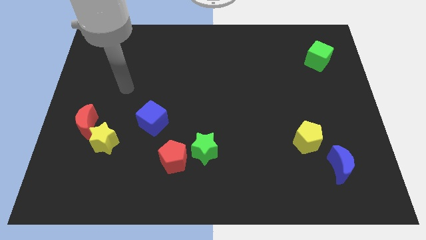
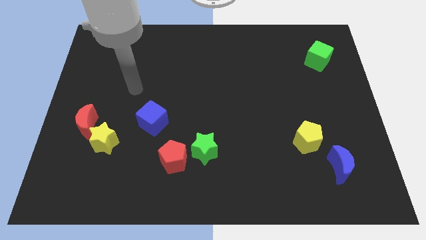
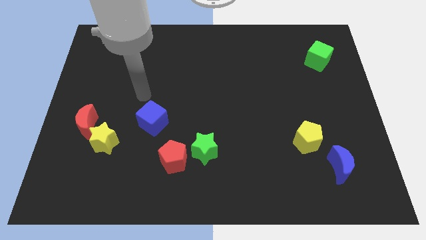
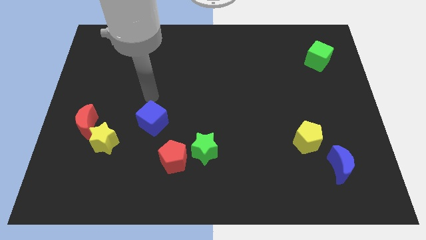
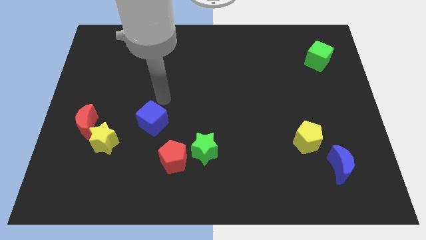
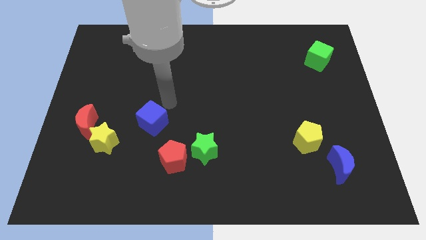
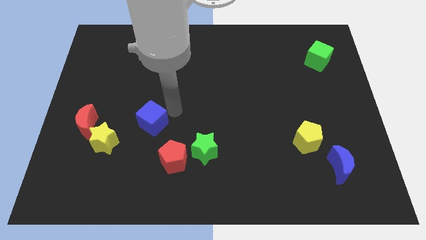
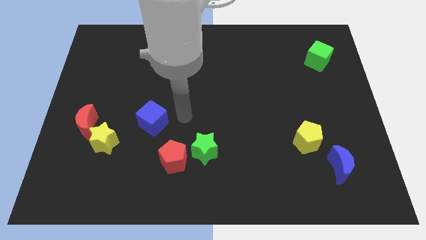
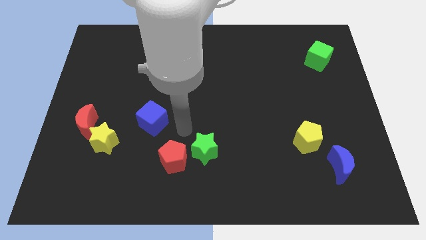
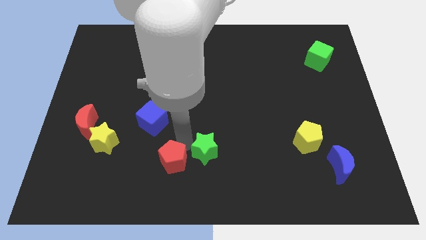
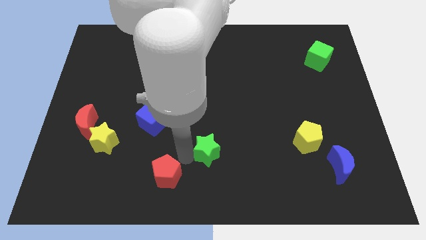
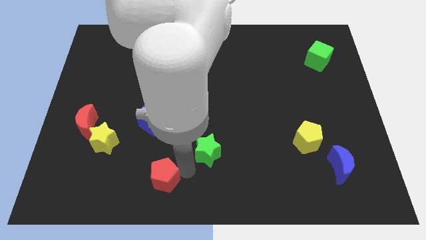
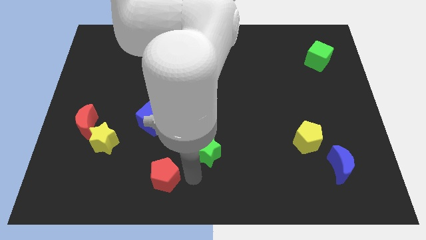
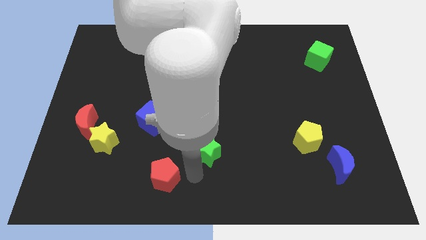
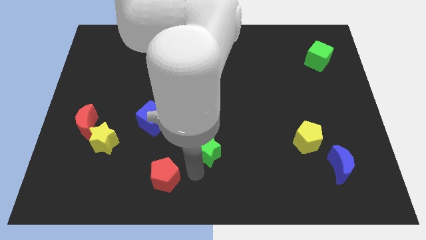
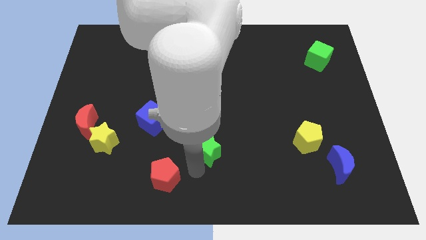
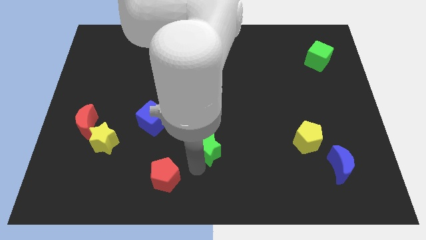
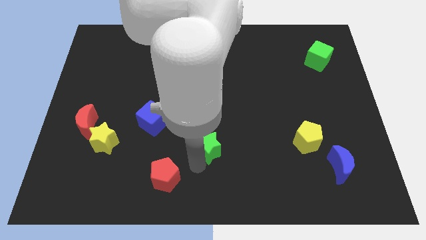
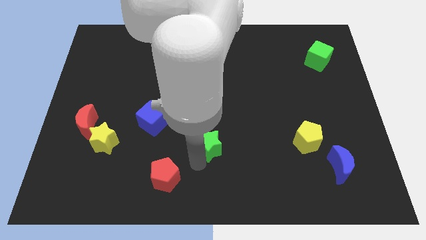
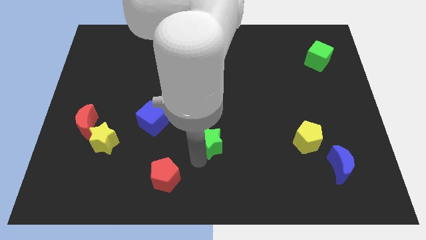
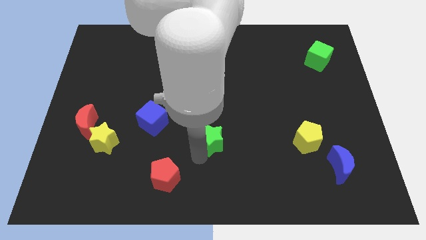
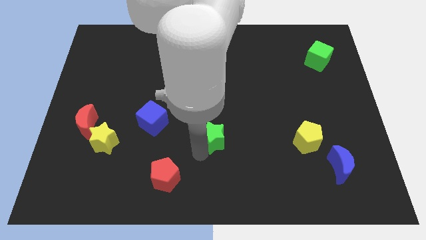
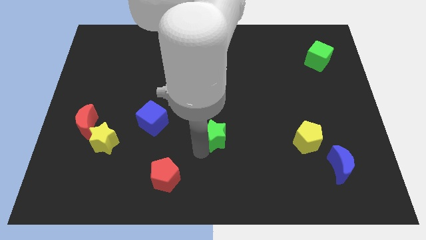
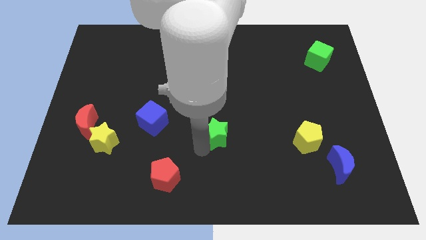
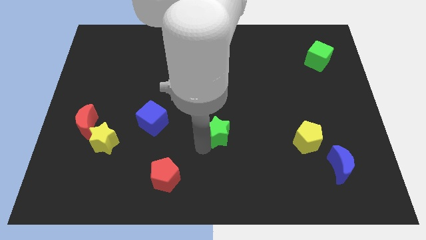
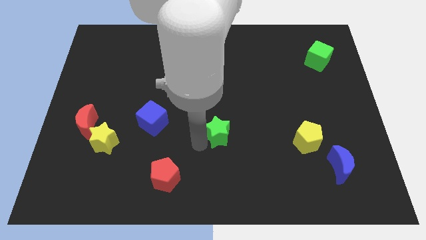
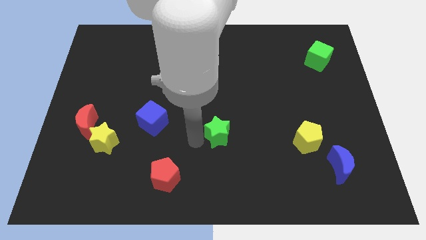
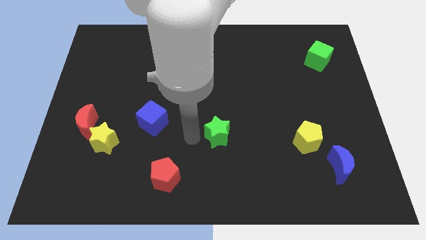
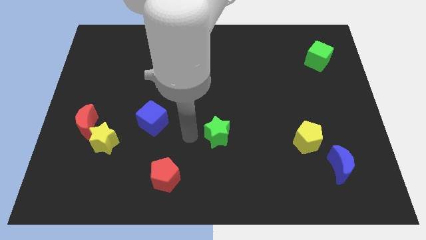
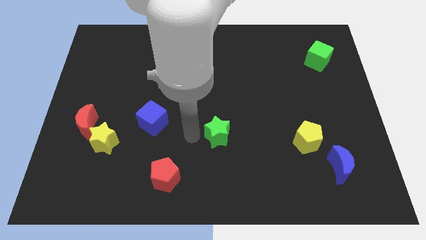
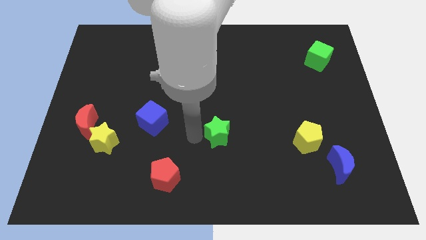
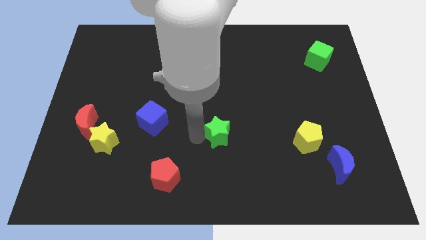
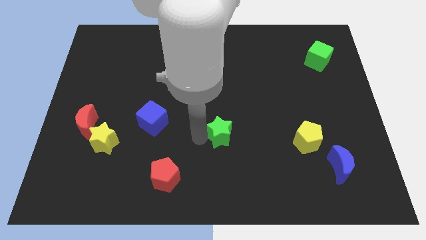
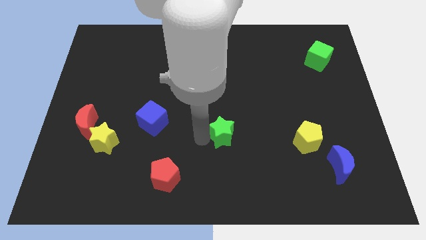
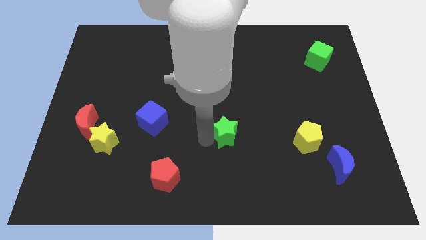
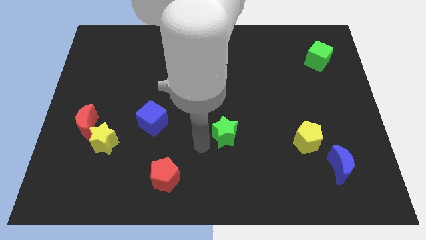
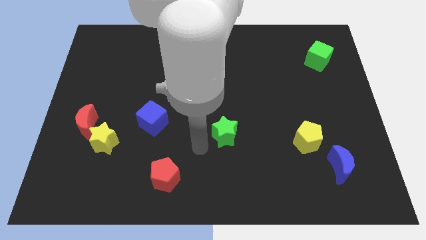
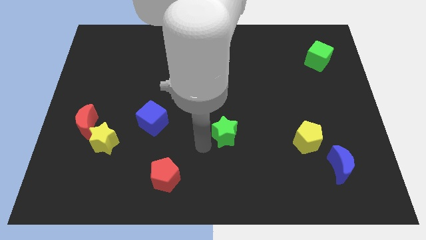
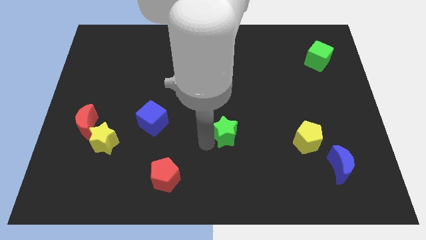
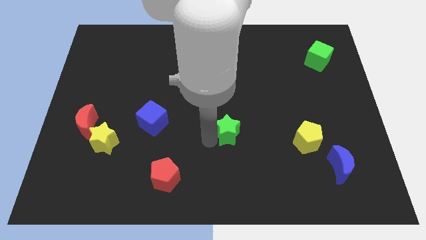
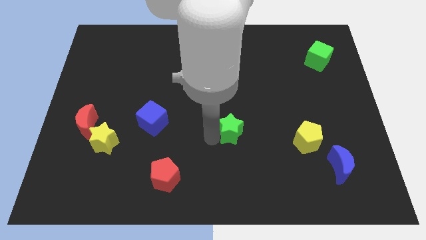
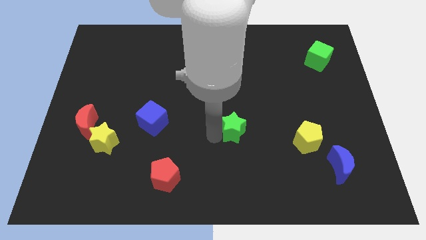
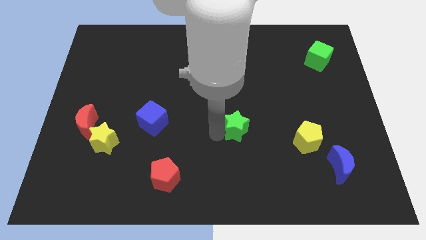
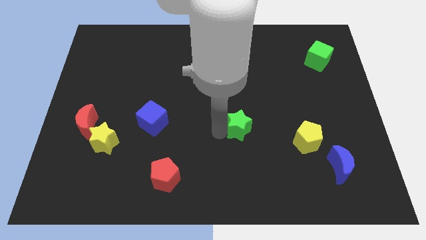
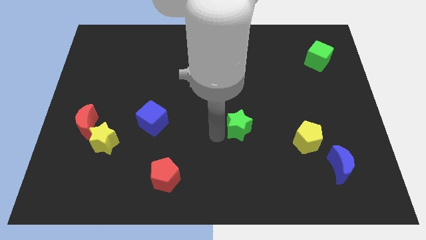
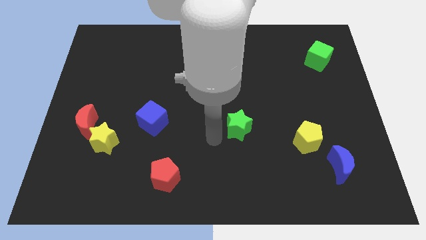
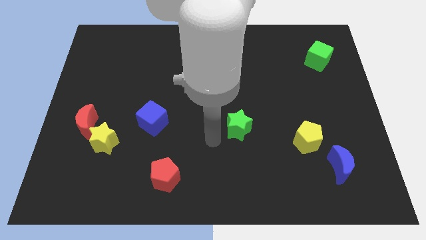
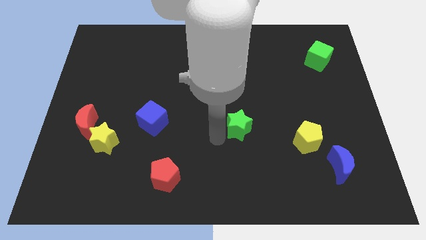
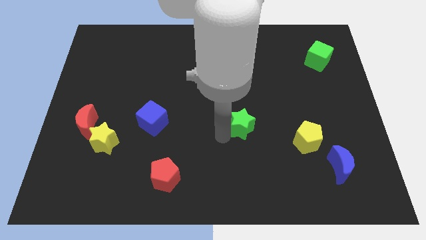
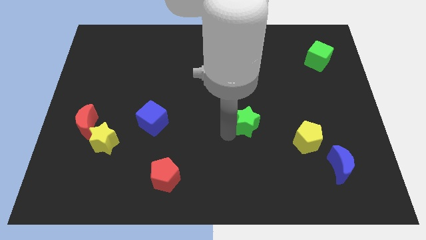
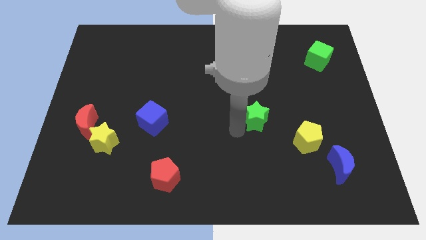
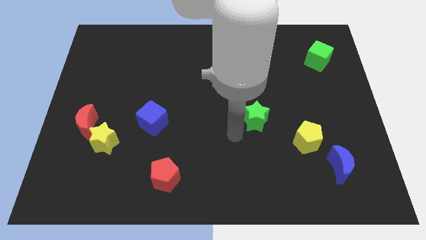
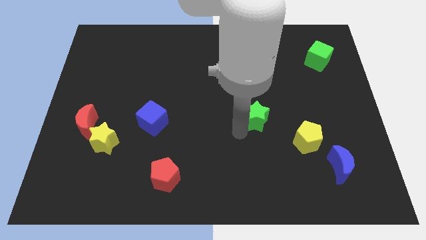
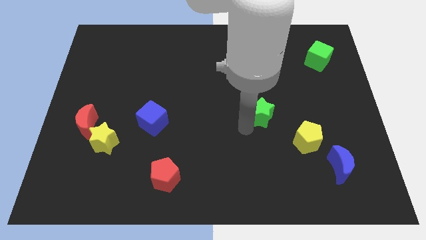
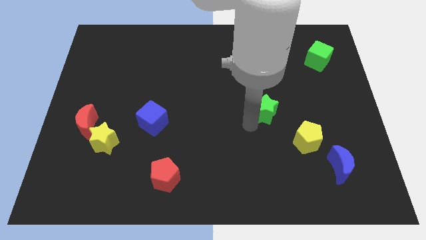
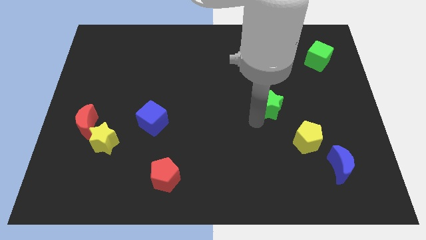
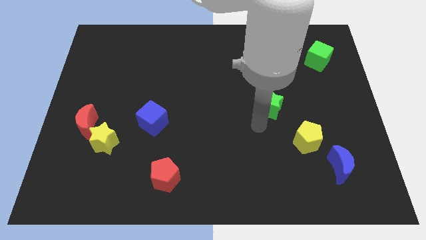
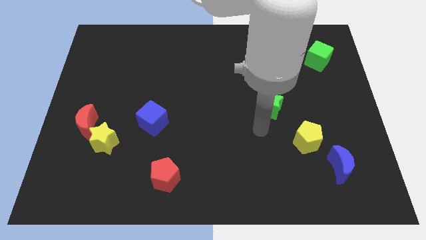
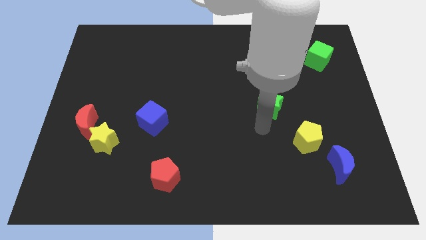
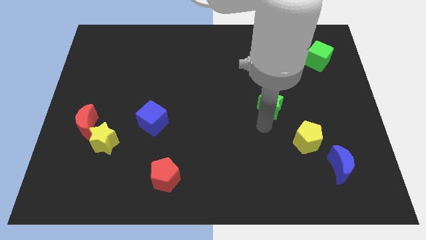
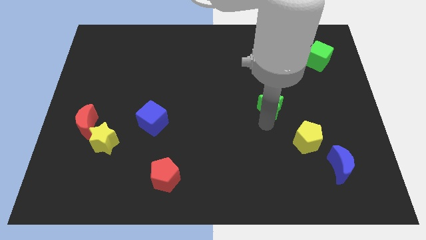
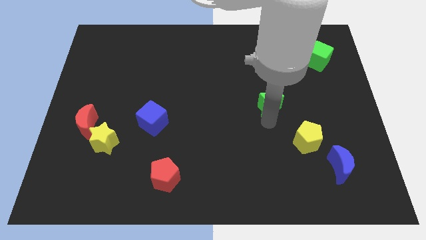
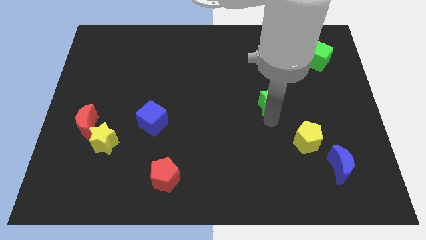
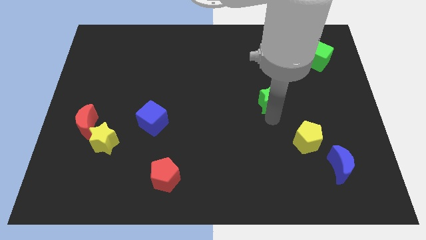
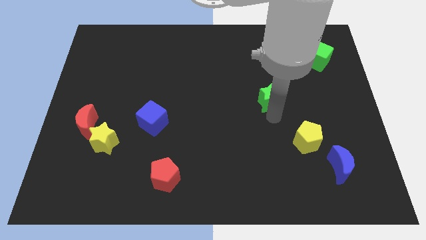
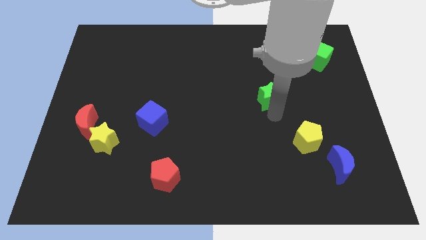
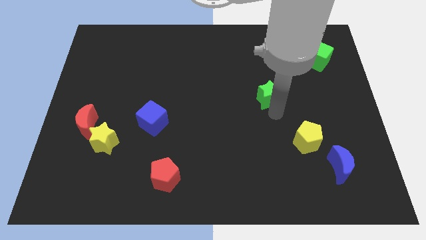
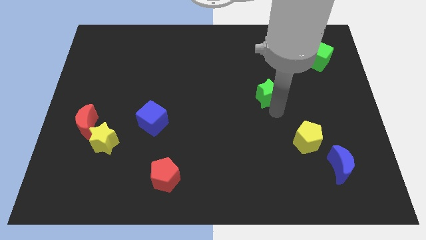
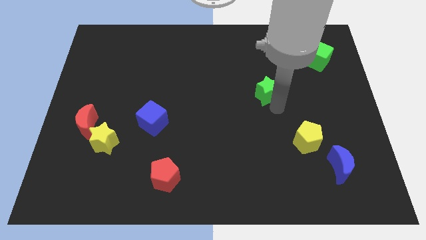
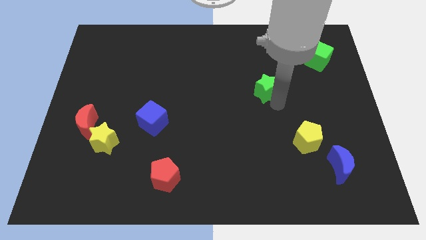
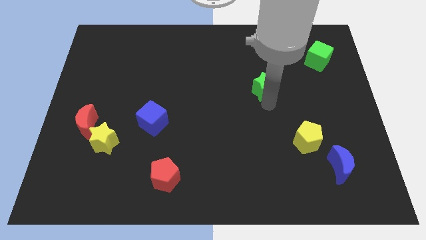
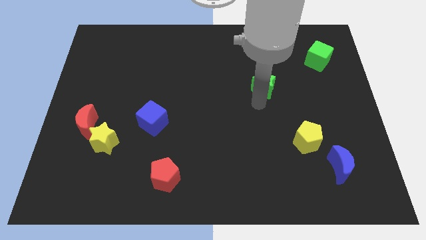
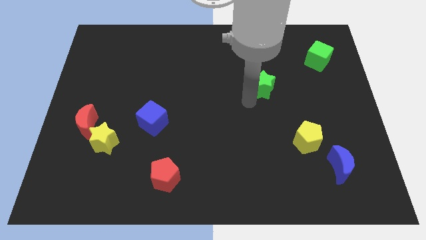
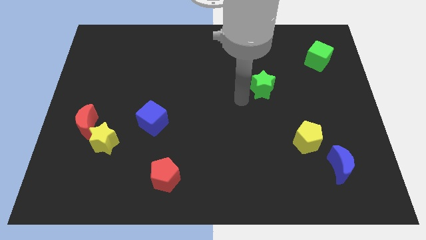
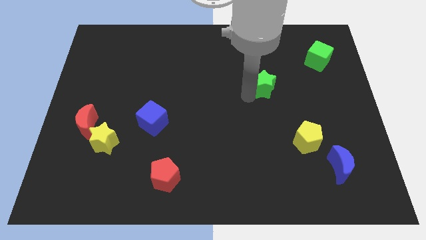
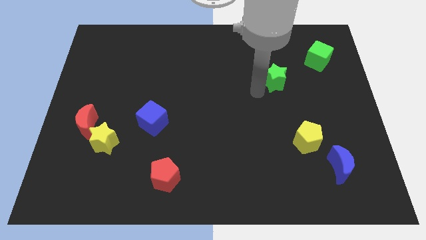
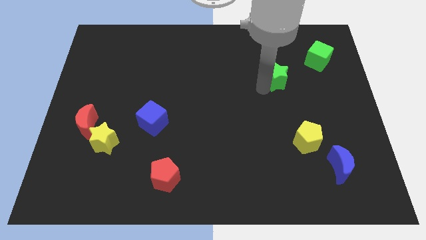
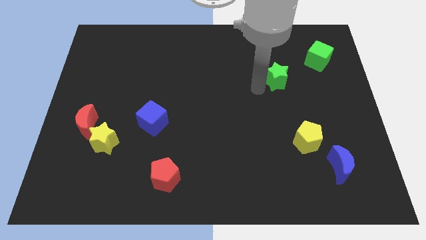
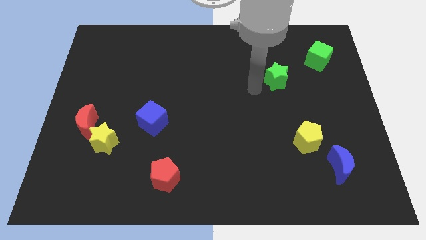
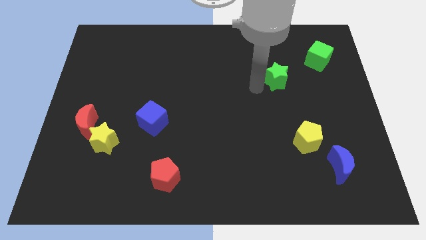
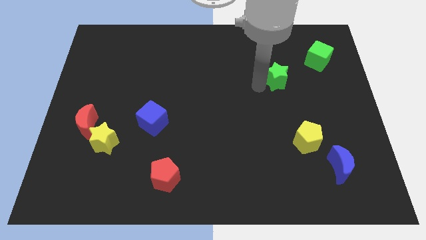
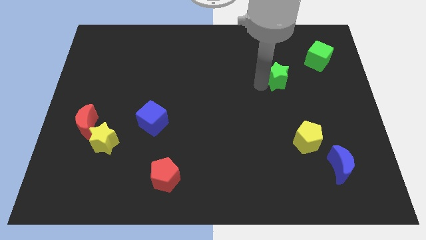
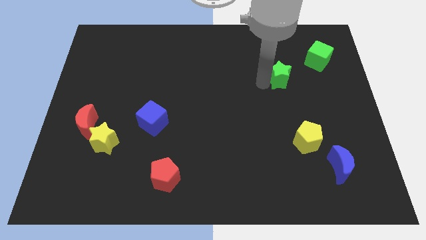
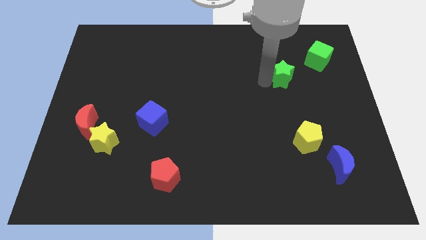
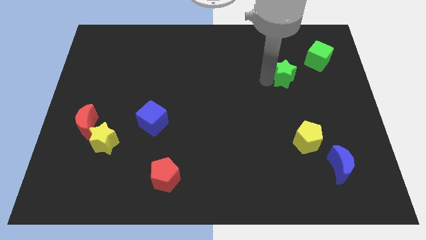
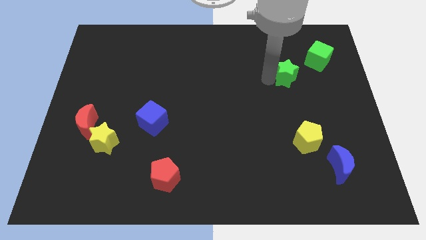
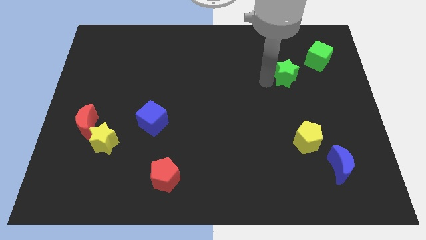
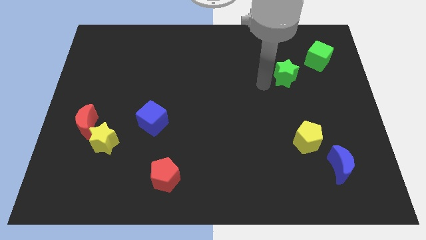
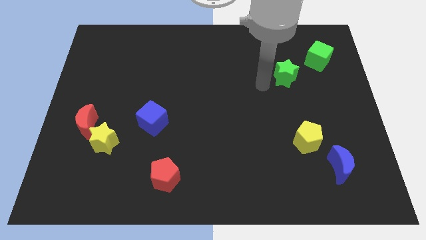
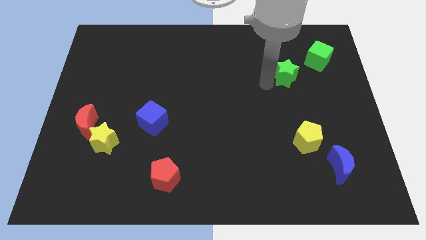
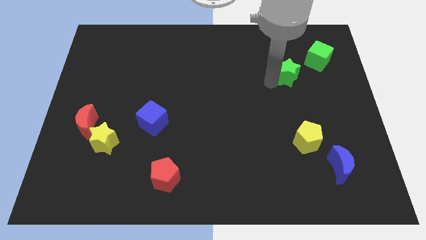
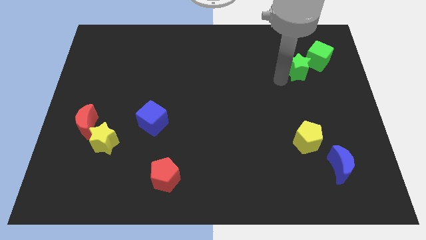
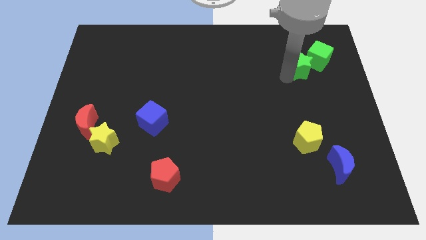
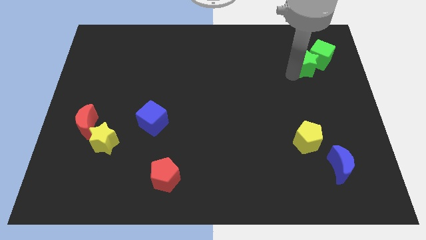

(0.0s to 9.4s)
push the green star to the green cube
